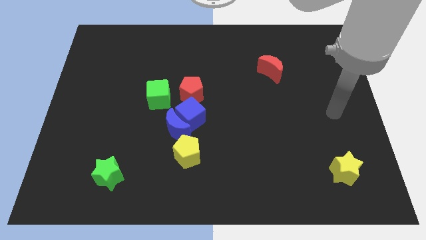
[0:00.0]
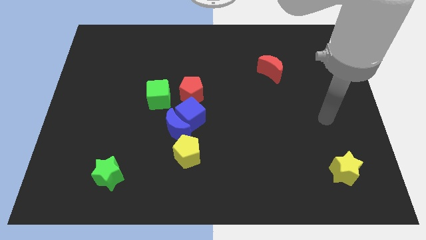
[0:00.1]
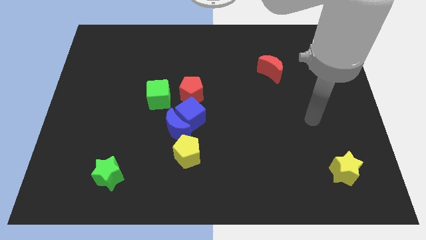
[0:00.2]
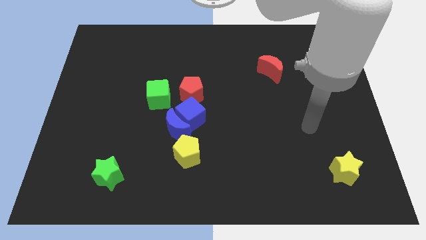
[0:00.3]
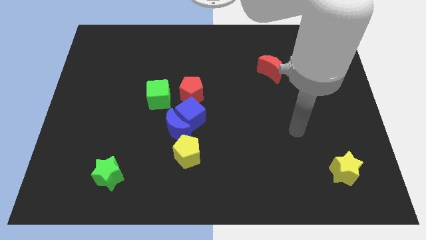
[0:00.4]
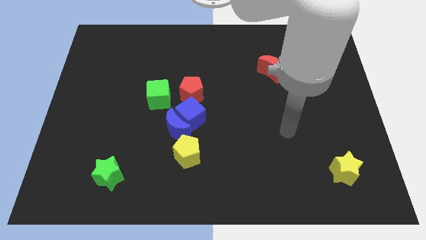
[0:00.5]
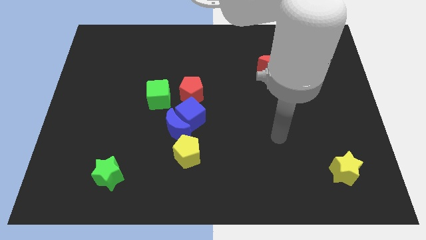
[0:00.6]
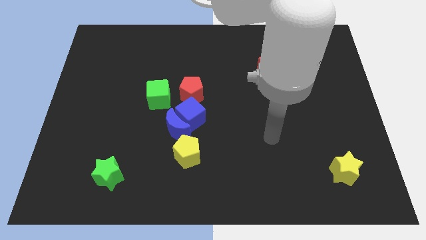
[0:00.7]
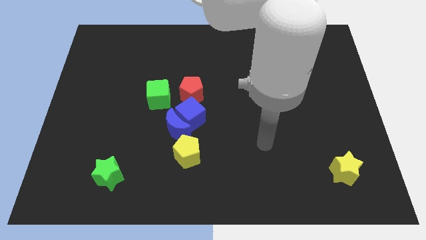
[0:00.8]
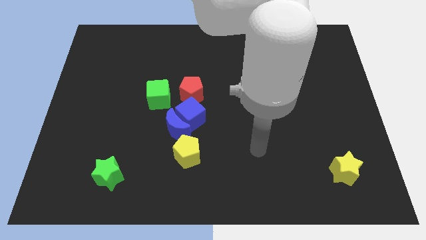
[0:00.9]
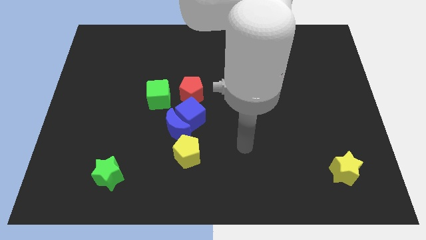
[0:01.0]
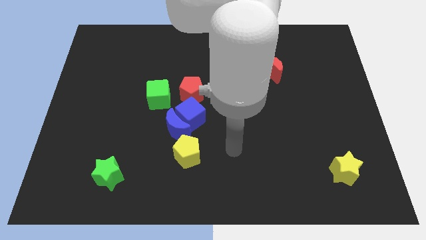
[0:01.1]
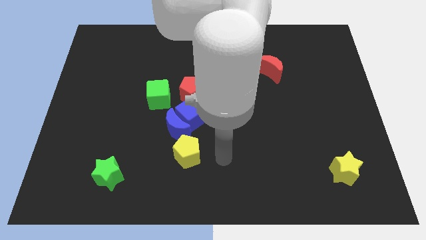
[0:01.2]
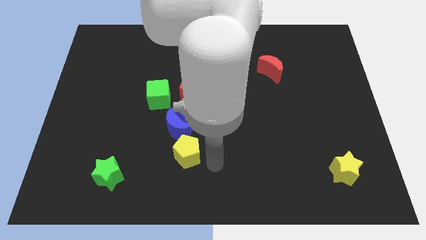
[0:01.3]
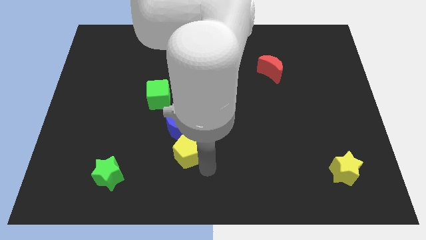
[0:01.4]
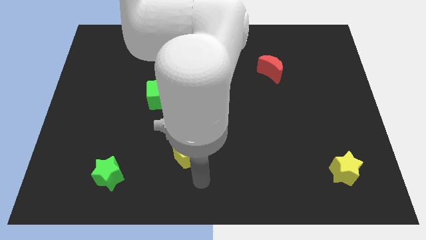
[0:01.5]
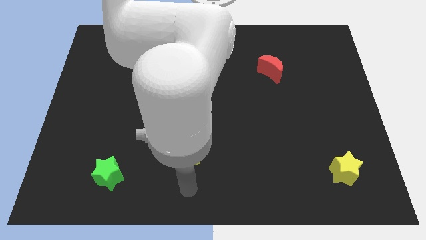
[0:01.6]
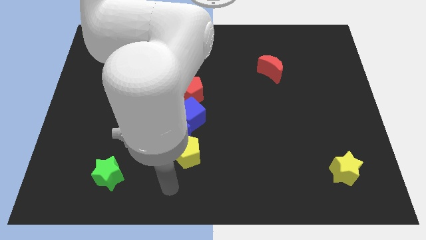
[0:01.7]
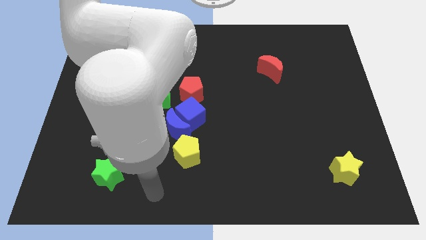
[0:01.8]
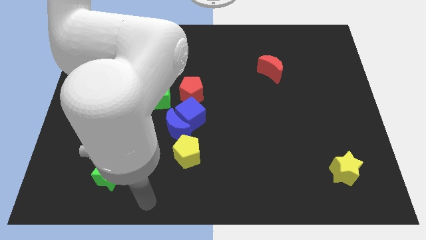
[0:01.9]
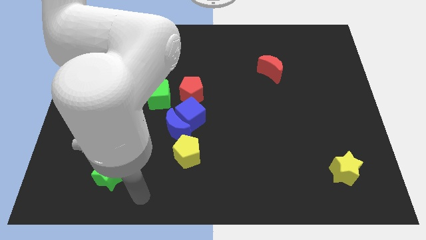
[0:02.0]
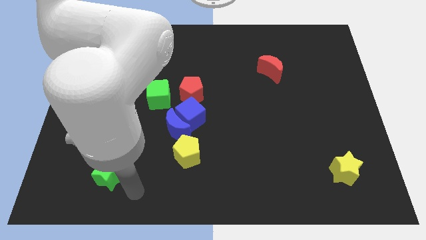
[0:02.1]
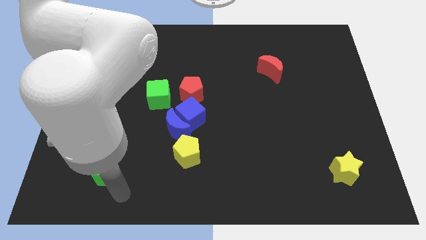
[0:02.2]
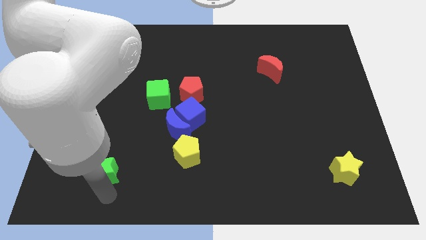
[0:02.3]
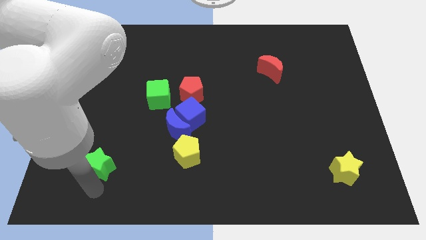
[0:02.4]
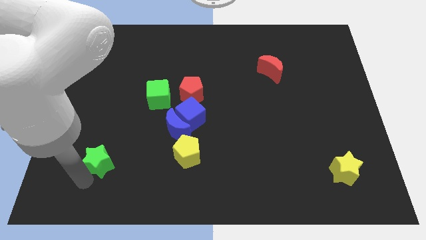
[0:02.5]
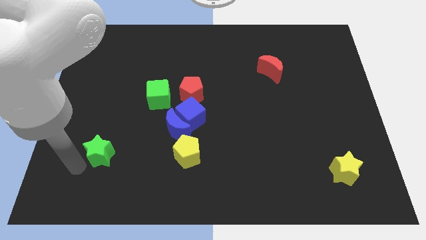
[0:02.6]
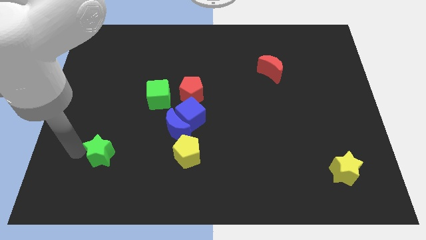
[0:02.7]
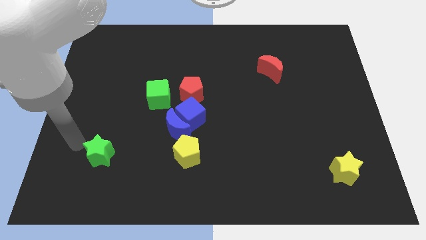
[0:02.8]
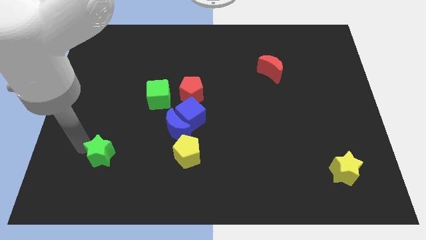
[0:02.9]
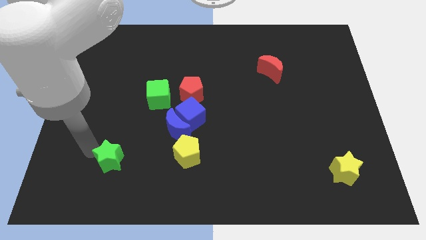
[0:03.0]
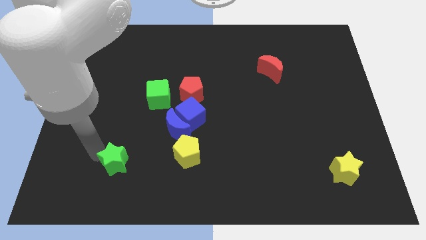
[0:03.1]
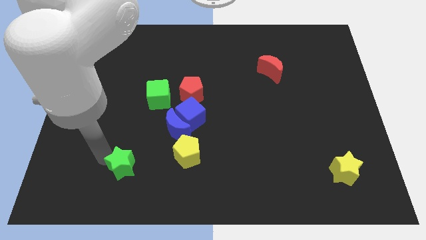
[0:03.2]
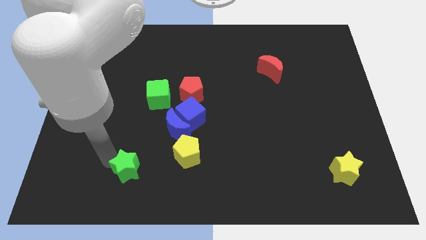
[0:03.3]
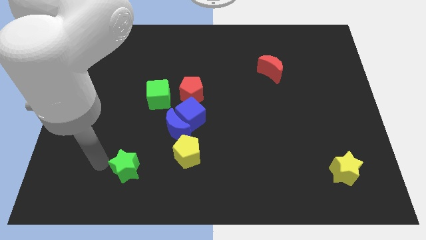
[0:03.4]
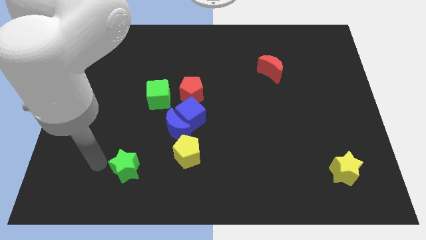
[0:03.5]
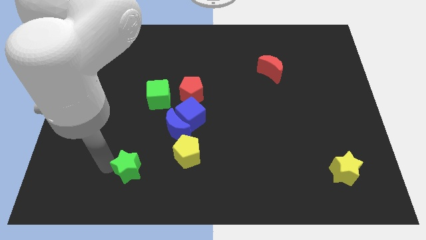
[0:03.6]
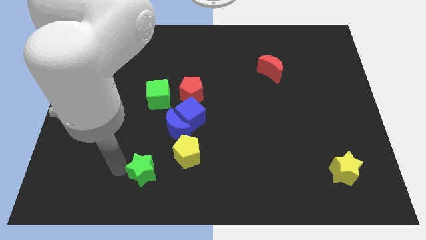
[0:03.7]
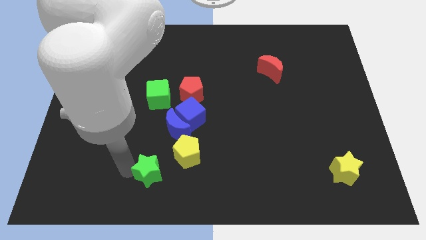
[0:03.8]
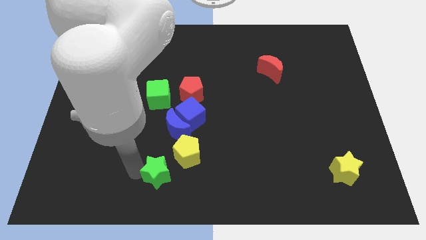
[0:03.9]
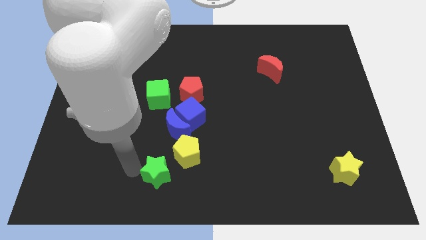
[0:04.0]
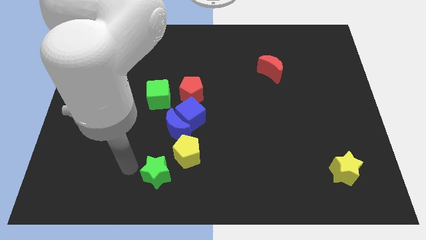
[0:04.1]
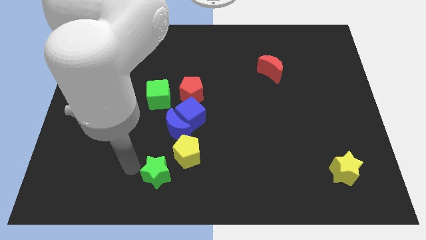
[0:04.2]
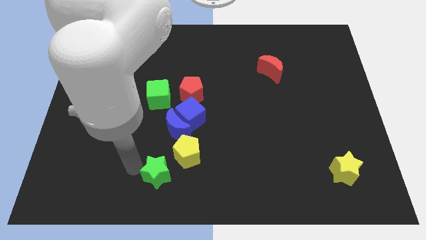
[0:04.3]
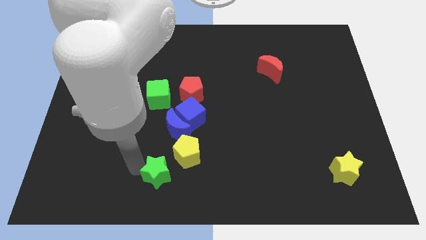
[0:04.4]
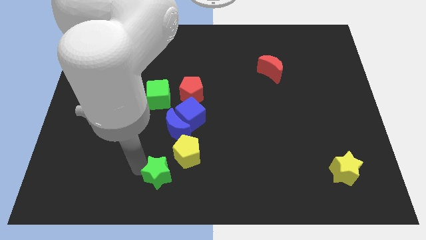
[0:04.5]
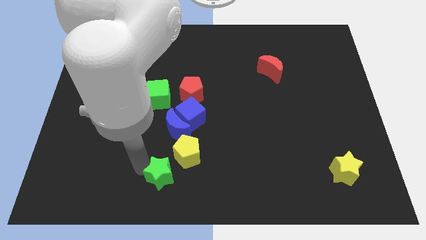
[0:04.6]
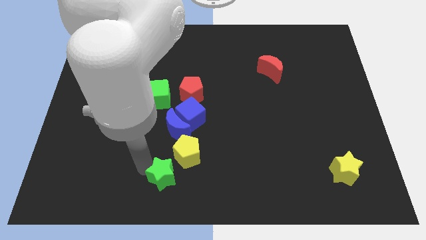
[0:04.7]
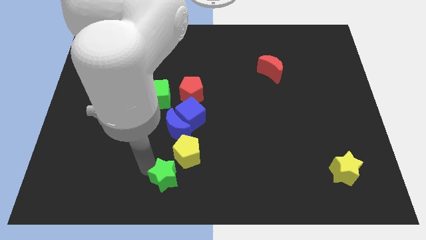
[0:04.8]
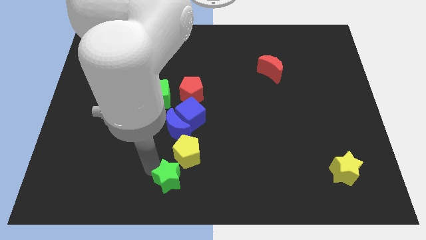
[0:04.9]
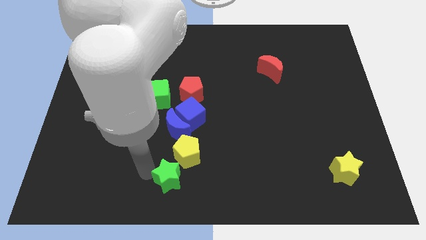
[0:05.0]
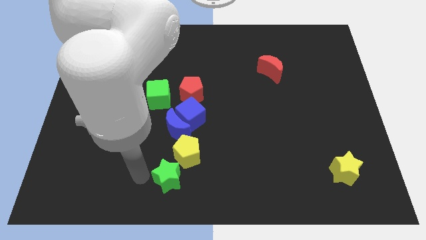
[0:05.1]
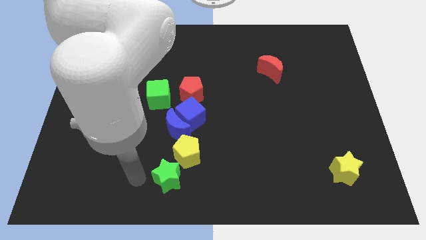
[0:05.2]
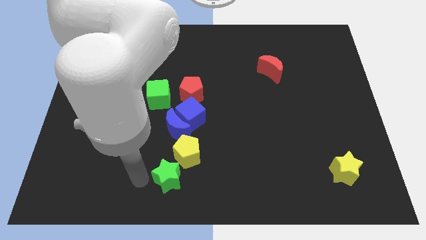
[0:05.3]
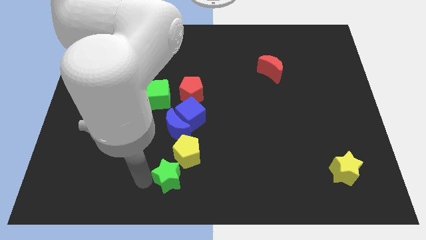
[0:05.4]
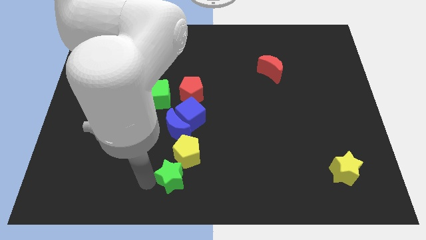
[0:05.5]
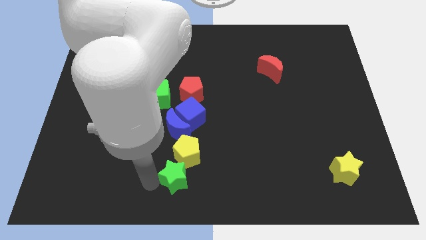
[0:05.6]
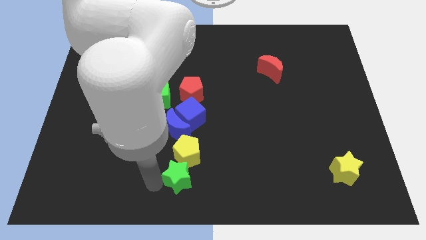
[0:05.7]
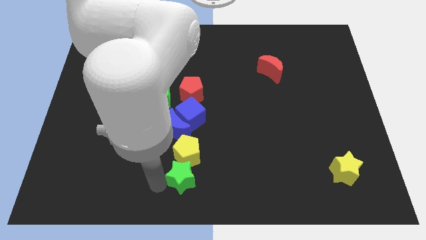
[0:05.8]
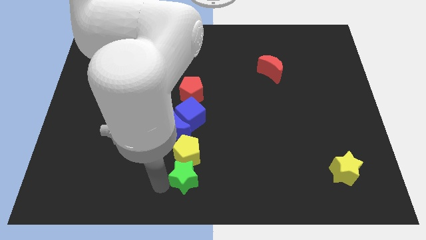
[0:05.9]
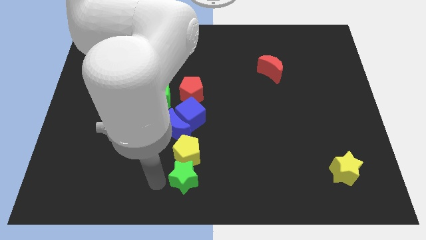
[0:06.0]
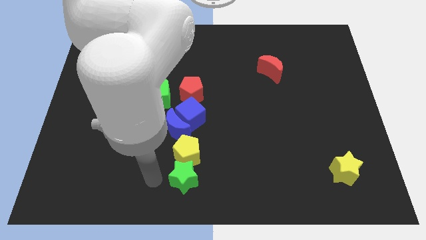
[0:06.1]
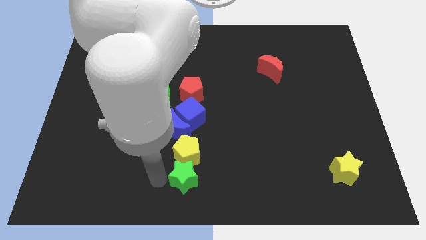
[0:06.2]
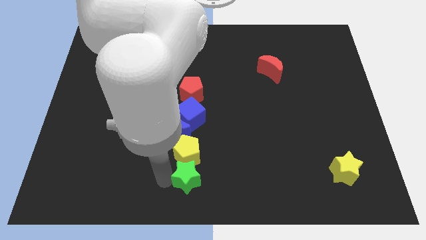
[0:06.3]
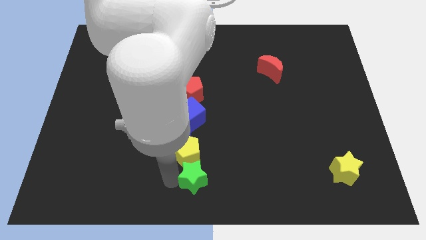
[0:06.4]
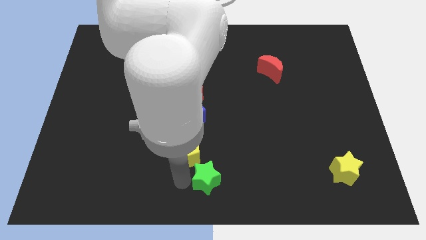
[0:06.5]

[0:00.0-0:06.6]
slide the green star to the right

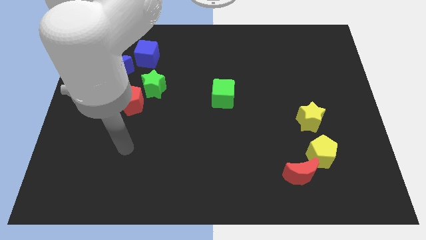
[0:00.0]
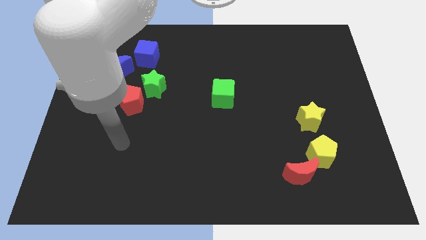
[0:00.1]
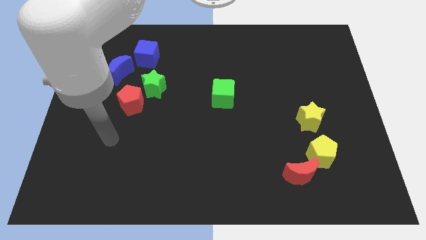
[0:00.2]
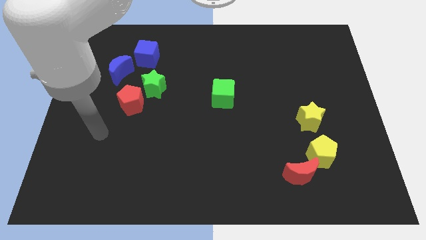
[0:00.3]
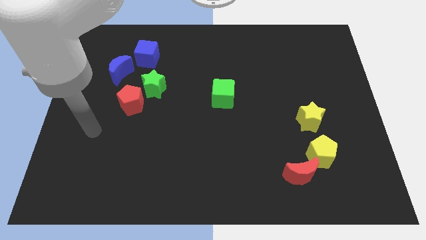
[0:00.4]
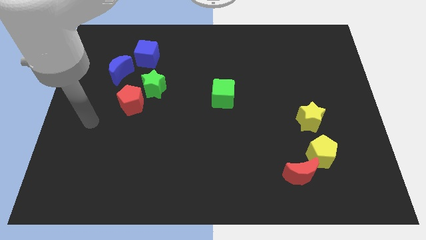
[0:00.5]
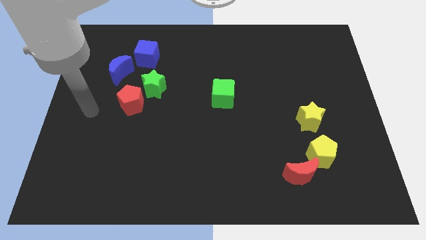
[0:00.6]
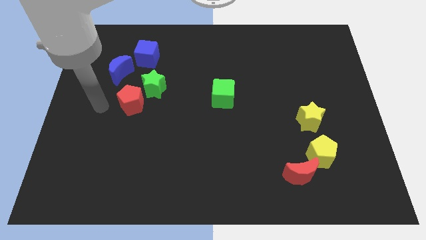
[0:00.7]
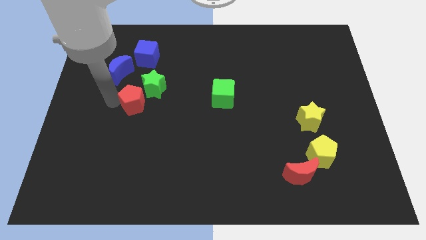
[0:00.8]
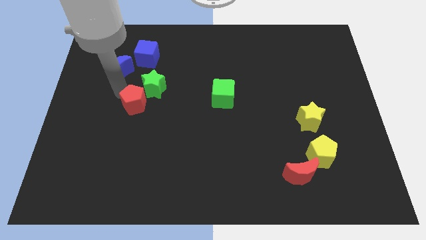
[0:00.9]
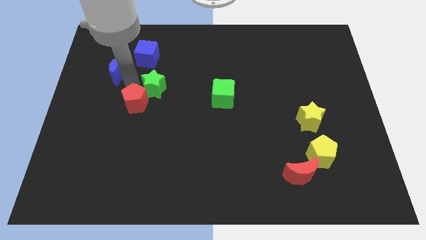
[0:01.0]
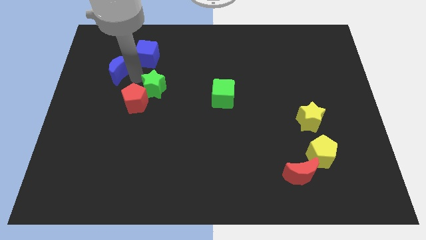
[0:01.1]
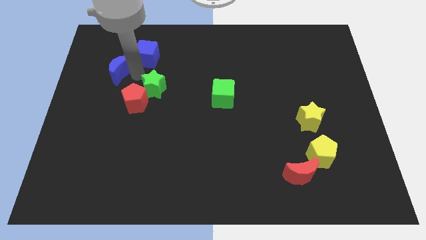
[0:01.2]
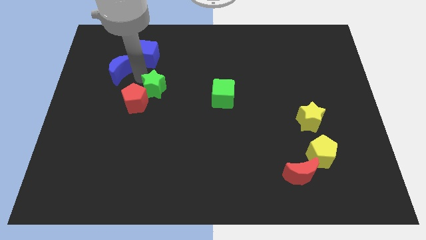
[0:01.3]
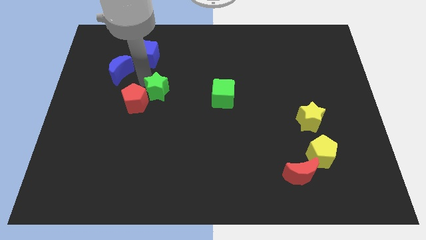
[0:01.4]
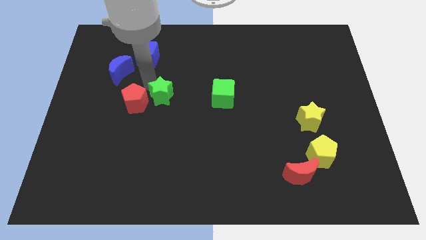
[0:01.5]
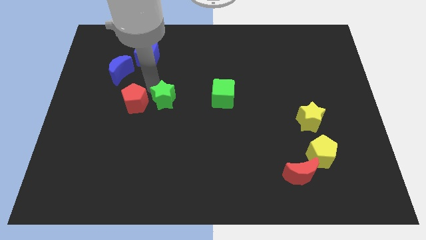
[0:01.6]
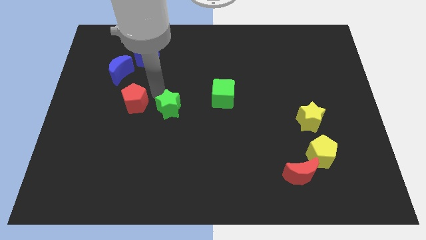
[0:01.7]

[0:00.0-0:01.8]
push the green star diagonally downwards and to the right a little bit
